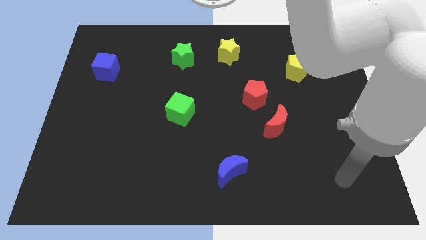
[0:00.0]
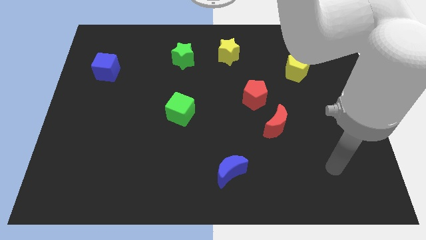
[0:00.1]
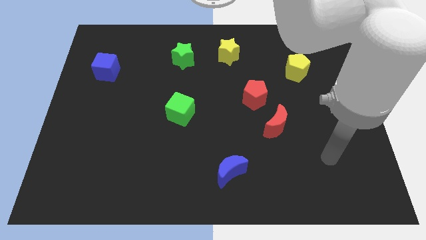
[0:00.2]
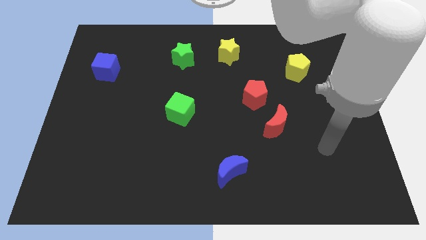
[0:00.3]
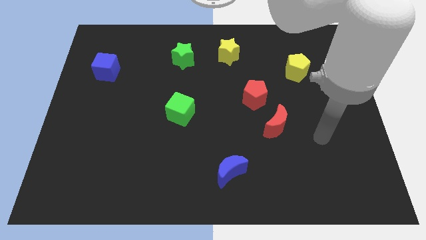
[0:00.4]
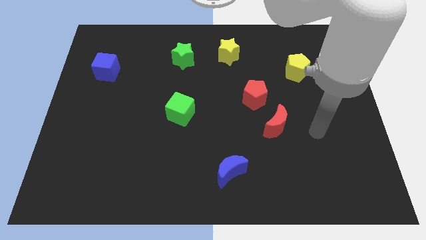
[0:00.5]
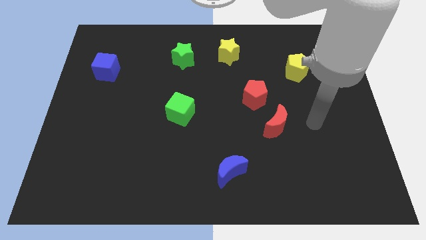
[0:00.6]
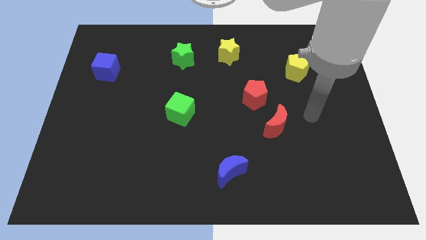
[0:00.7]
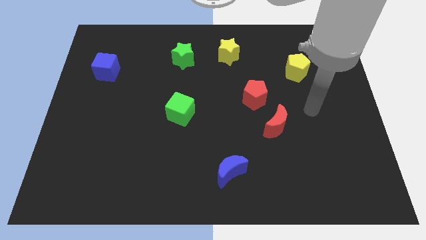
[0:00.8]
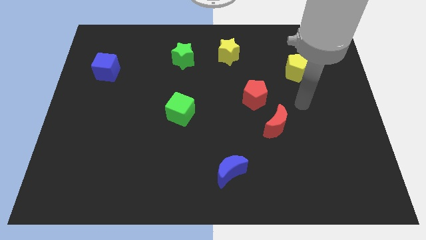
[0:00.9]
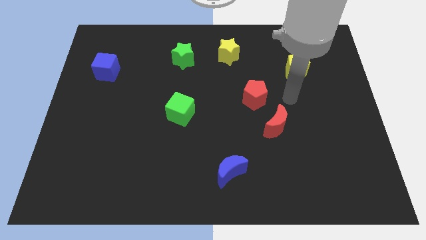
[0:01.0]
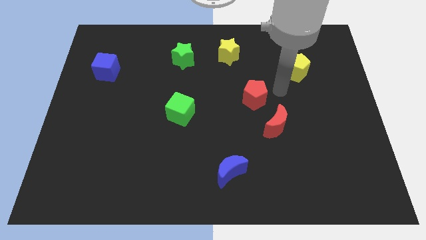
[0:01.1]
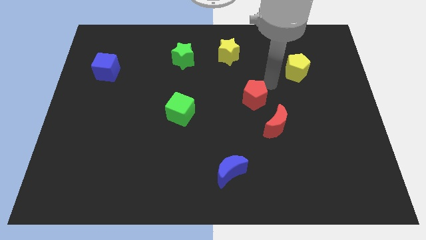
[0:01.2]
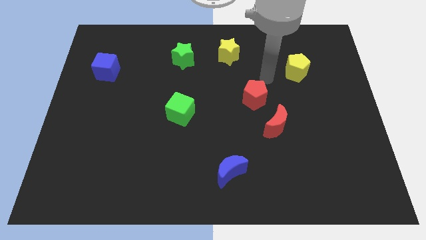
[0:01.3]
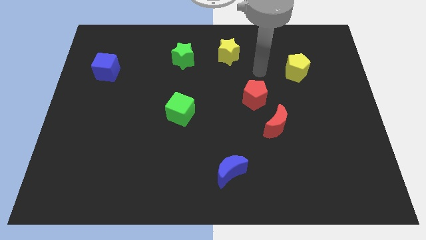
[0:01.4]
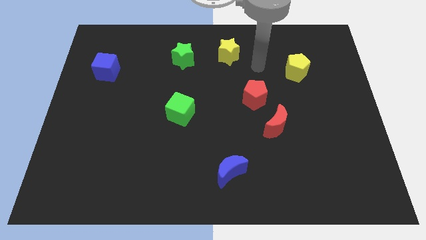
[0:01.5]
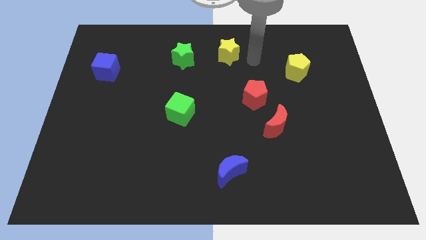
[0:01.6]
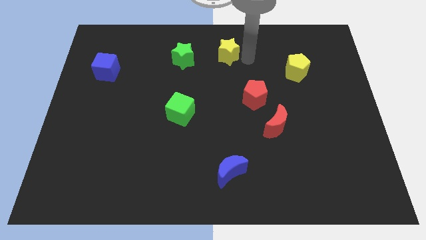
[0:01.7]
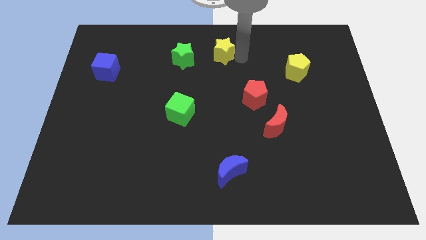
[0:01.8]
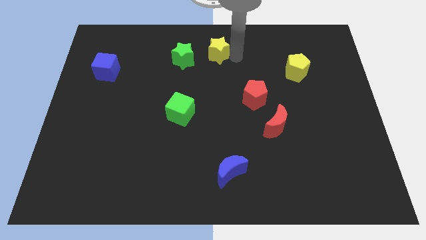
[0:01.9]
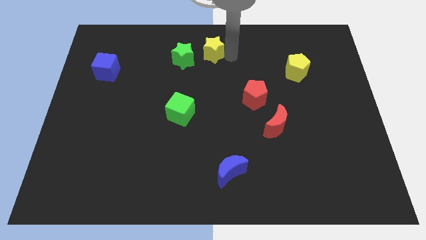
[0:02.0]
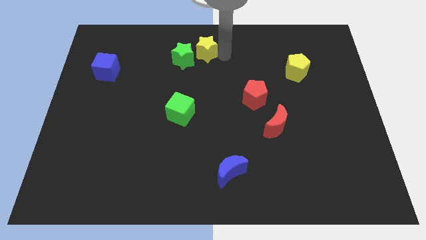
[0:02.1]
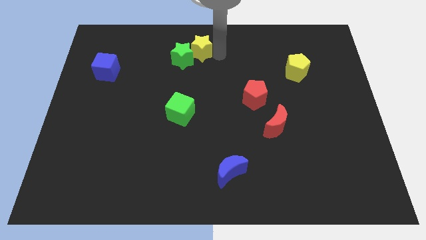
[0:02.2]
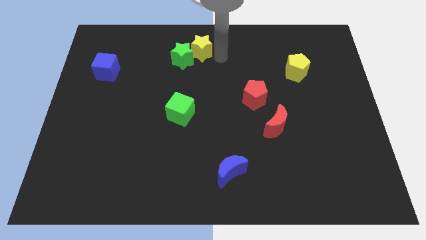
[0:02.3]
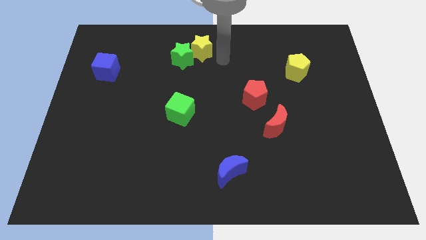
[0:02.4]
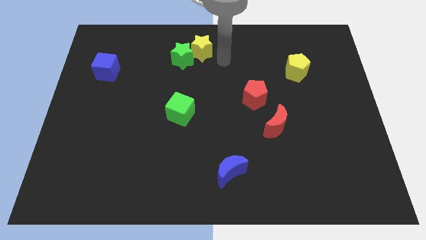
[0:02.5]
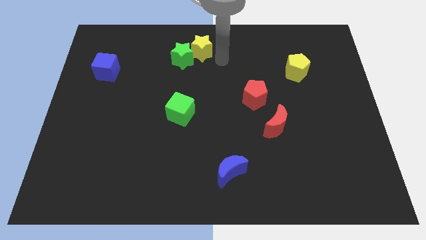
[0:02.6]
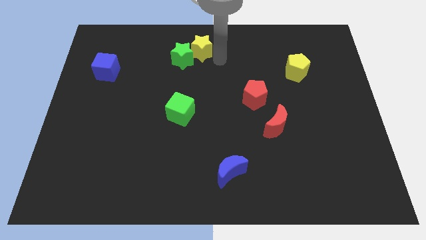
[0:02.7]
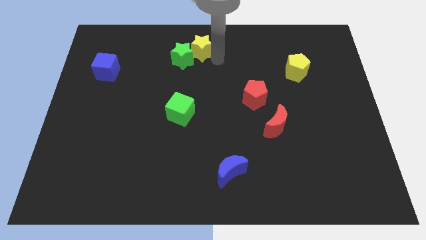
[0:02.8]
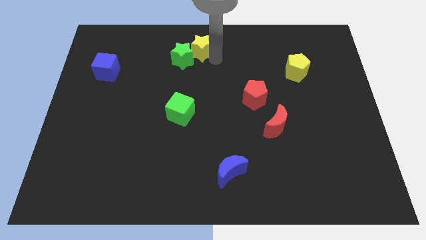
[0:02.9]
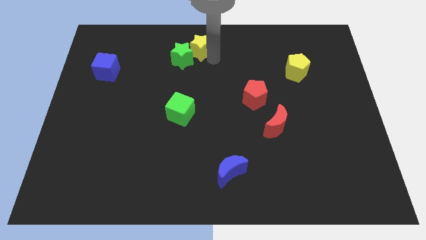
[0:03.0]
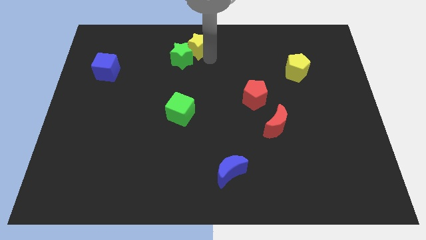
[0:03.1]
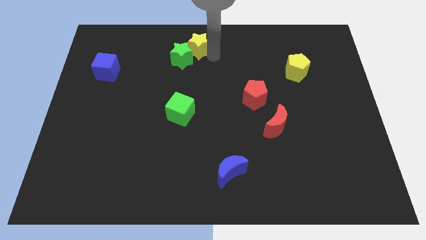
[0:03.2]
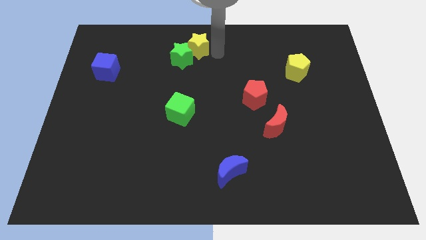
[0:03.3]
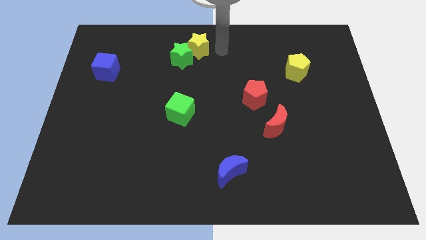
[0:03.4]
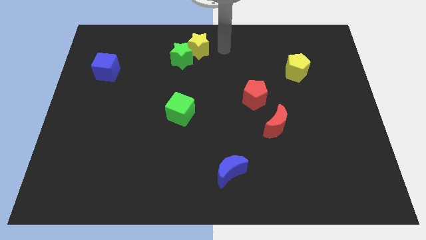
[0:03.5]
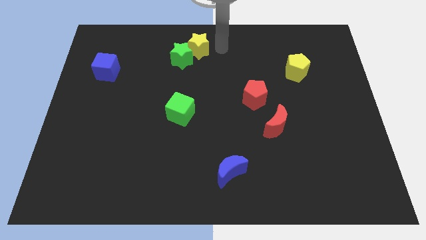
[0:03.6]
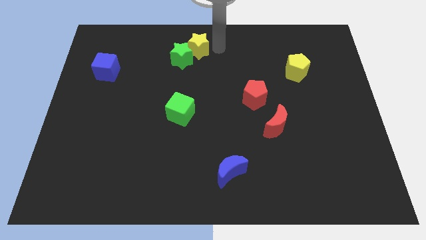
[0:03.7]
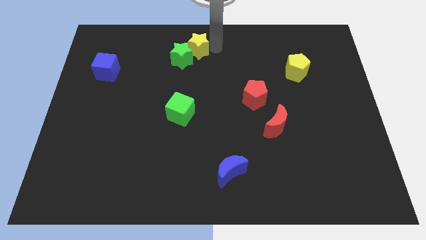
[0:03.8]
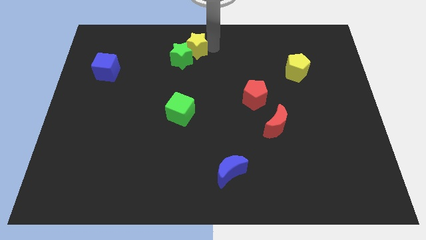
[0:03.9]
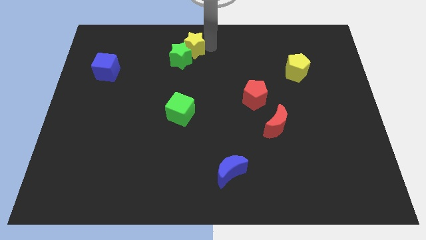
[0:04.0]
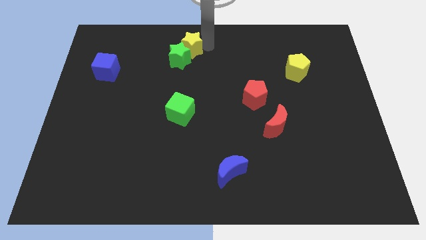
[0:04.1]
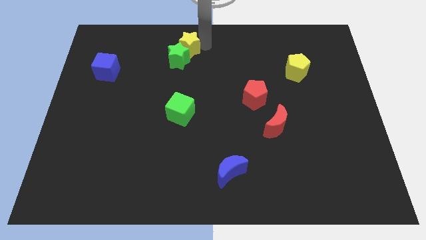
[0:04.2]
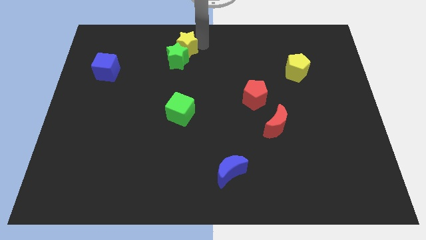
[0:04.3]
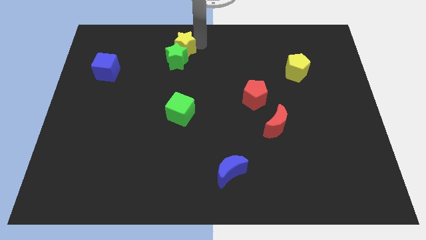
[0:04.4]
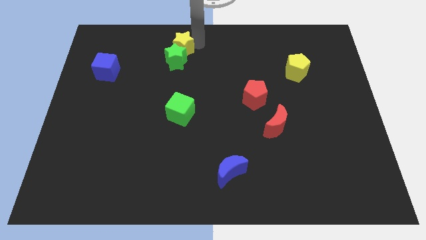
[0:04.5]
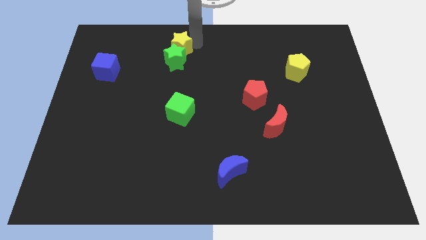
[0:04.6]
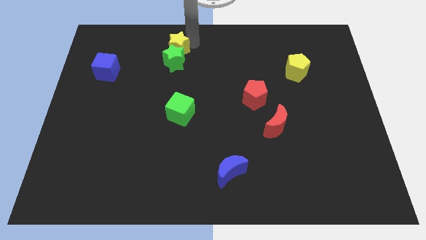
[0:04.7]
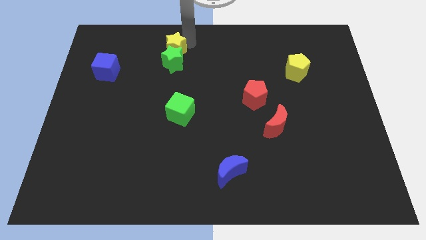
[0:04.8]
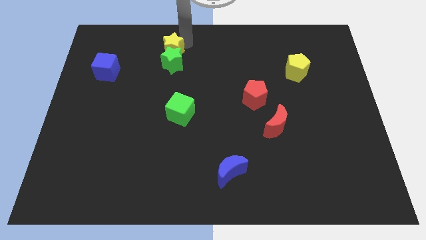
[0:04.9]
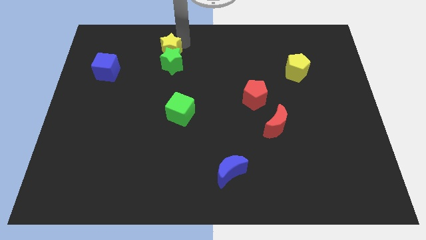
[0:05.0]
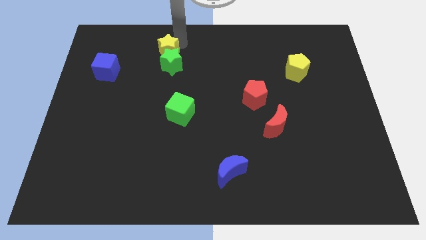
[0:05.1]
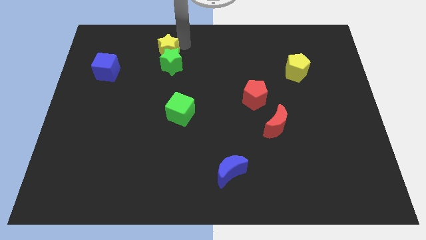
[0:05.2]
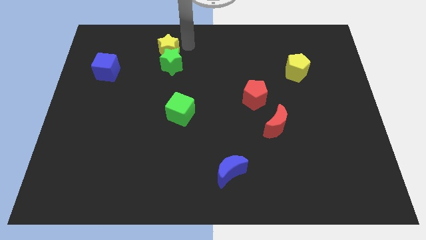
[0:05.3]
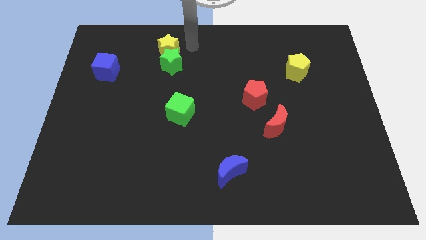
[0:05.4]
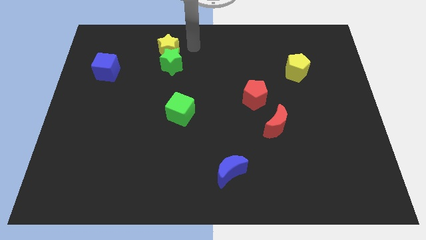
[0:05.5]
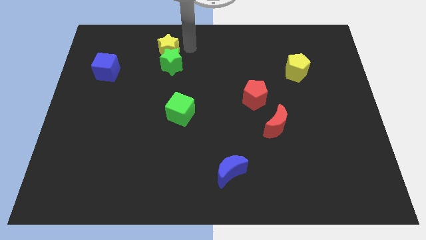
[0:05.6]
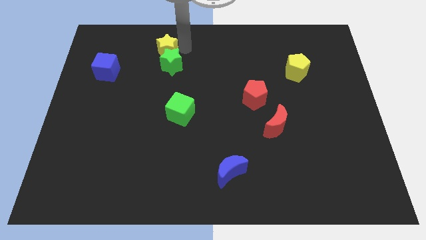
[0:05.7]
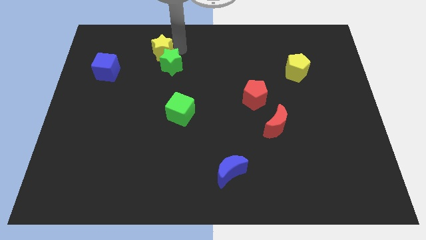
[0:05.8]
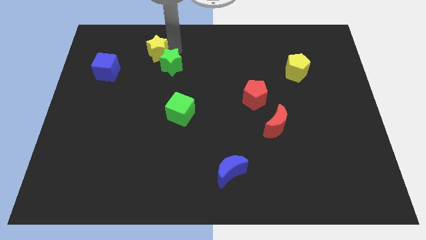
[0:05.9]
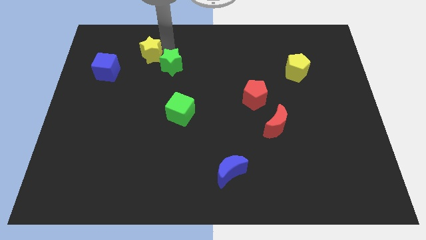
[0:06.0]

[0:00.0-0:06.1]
push the yellow star to the left

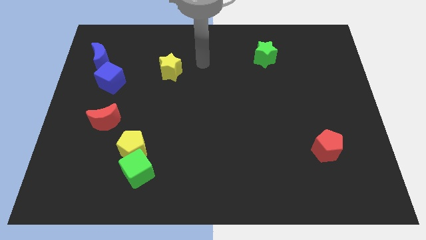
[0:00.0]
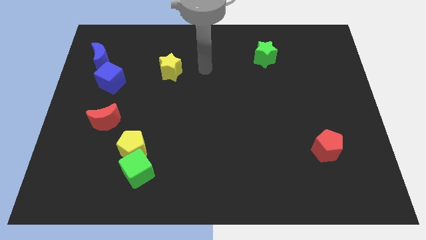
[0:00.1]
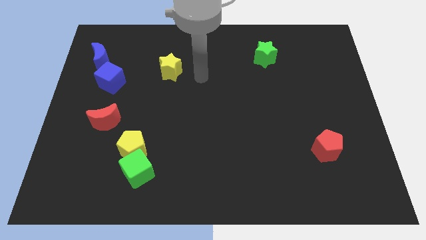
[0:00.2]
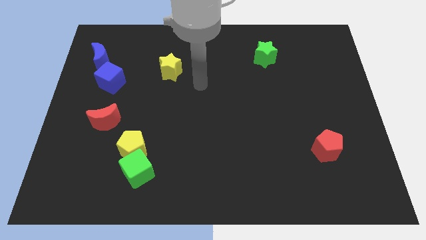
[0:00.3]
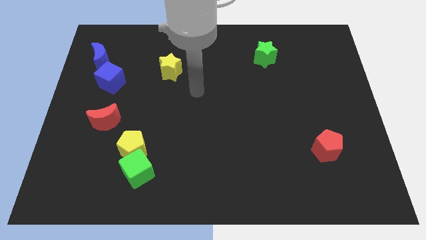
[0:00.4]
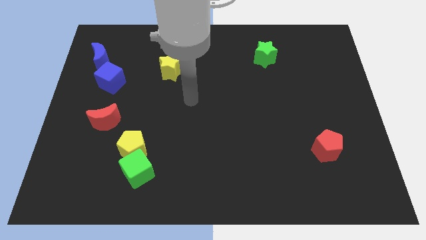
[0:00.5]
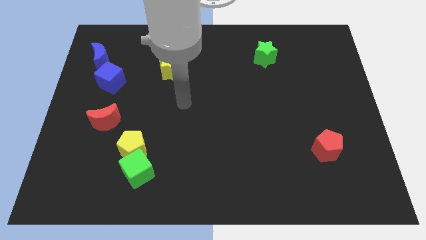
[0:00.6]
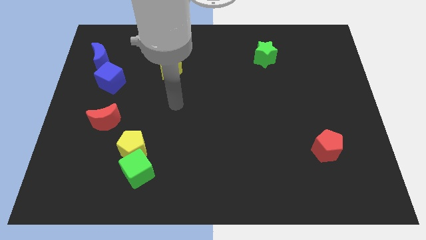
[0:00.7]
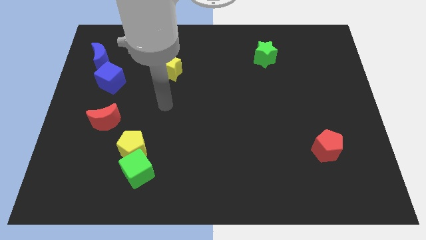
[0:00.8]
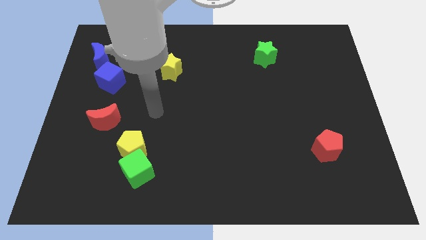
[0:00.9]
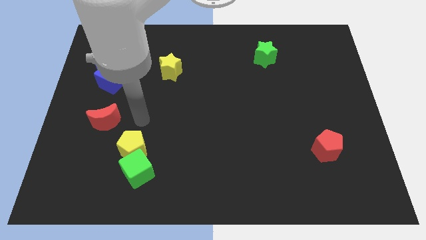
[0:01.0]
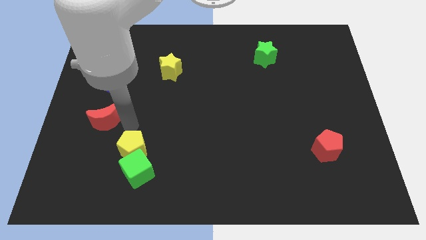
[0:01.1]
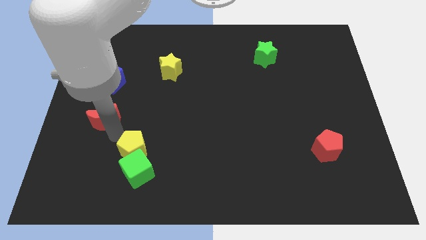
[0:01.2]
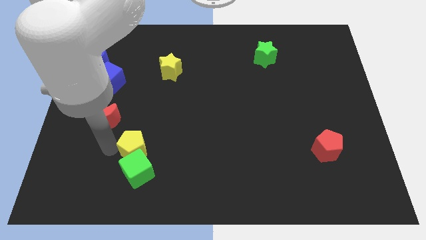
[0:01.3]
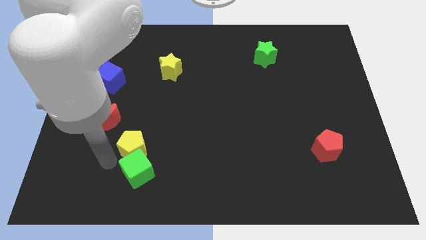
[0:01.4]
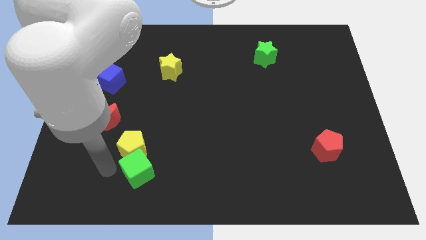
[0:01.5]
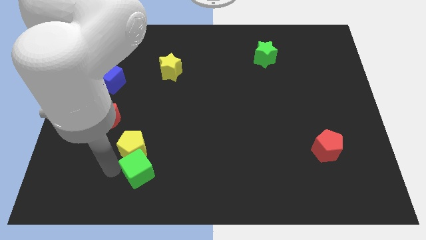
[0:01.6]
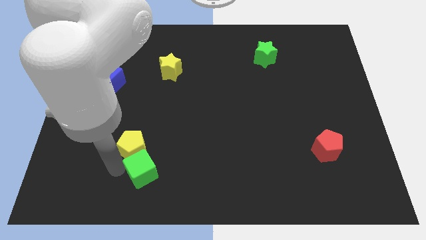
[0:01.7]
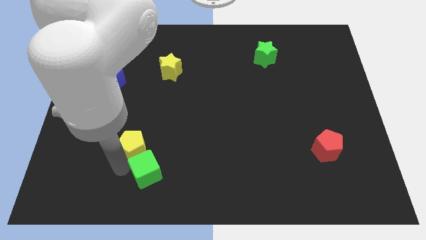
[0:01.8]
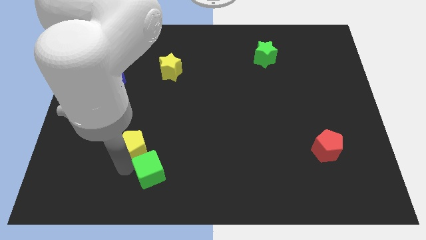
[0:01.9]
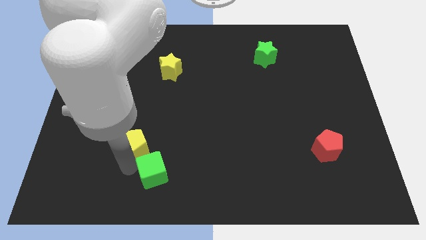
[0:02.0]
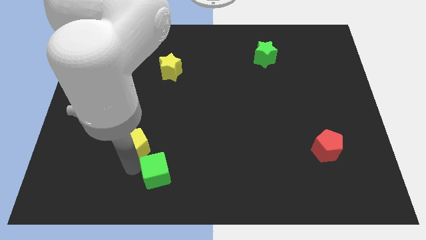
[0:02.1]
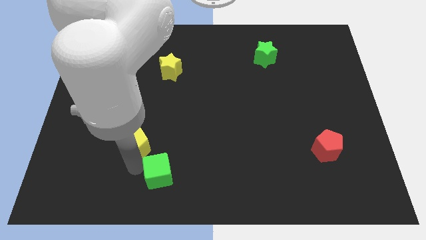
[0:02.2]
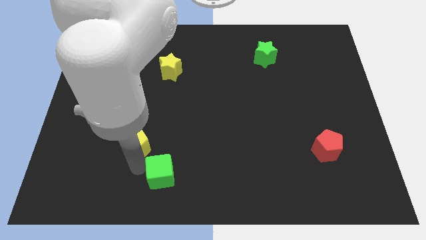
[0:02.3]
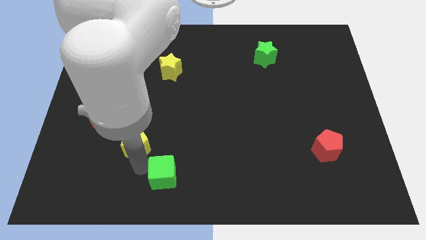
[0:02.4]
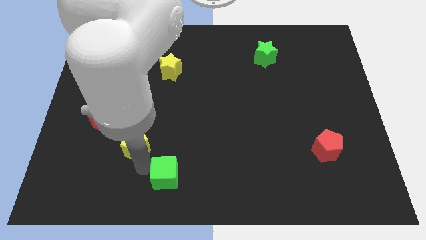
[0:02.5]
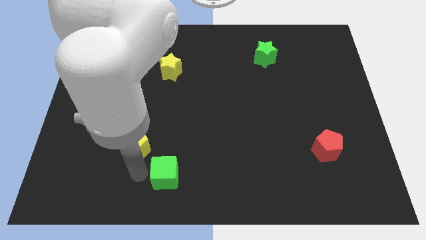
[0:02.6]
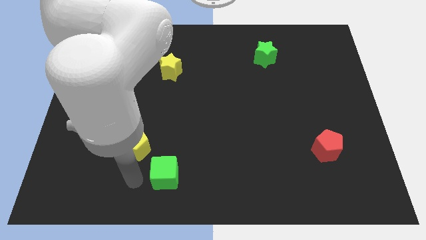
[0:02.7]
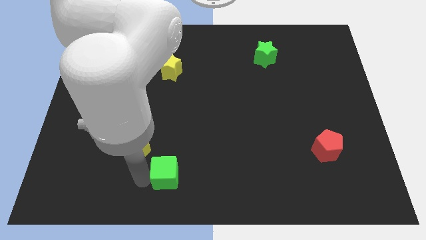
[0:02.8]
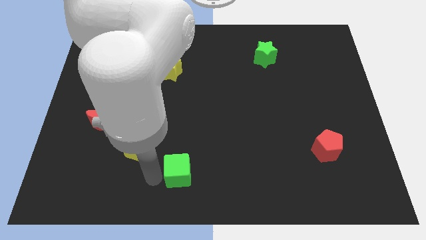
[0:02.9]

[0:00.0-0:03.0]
move the green cube slightly right
